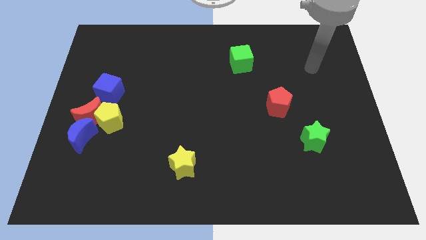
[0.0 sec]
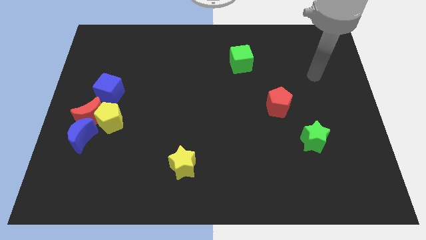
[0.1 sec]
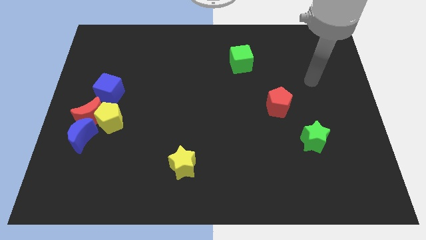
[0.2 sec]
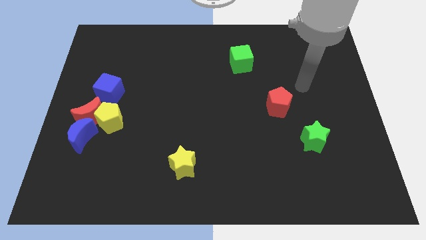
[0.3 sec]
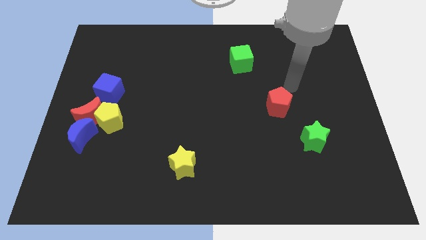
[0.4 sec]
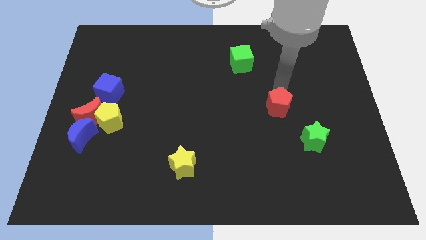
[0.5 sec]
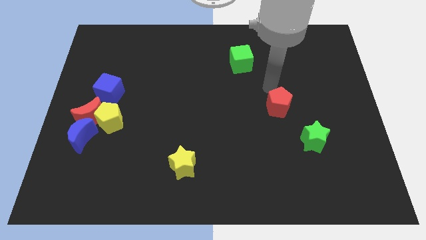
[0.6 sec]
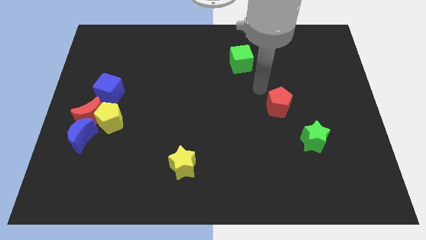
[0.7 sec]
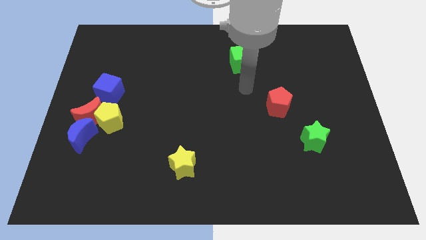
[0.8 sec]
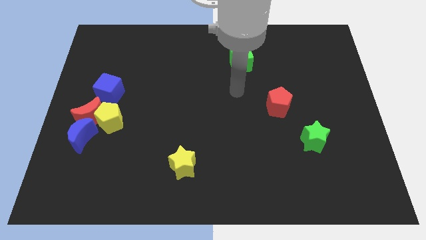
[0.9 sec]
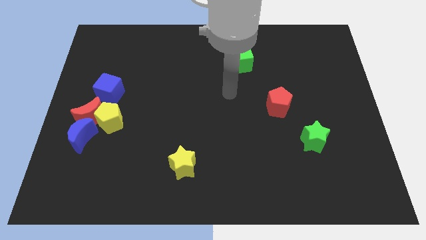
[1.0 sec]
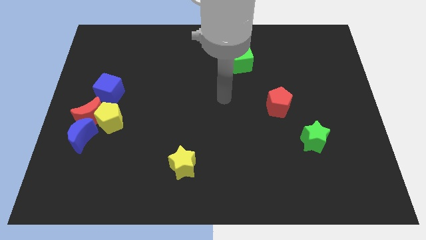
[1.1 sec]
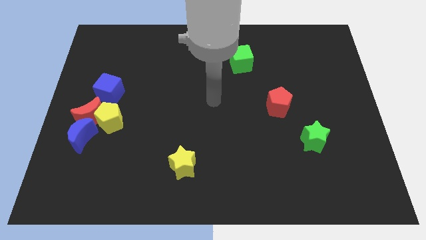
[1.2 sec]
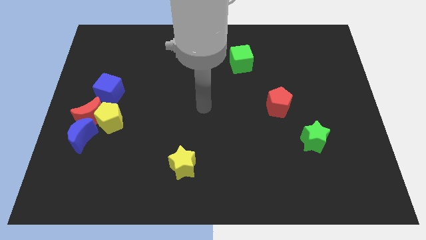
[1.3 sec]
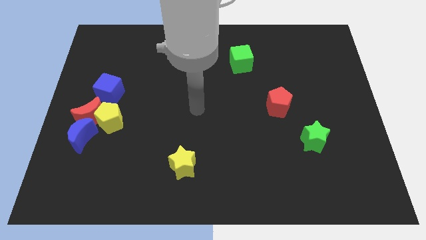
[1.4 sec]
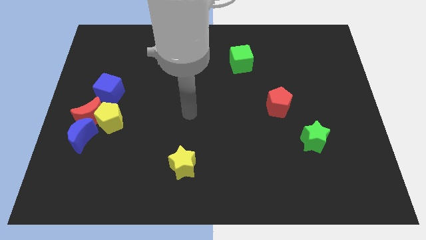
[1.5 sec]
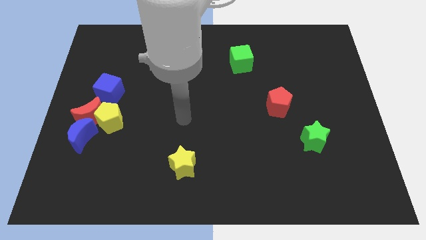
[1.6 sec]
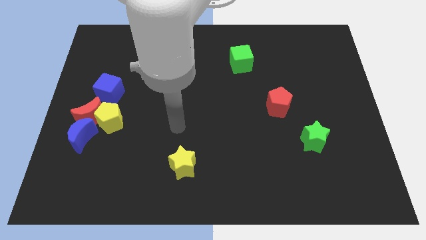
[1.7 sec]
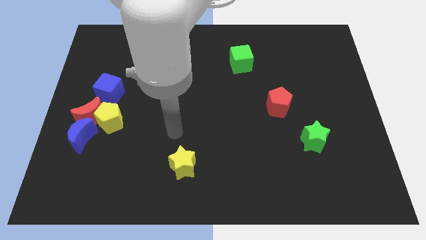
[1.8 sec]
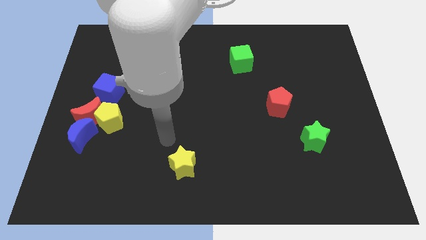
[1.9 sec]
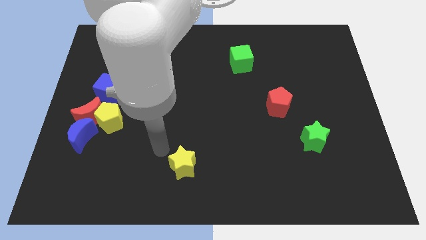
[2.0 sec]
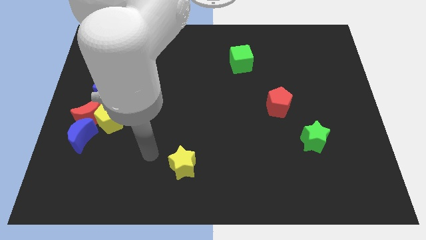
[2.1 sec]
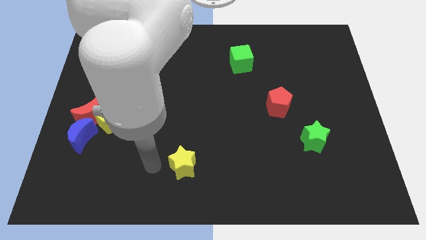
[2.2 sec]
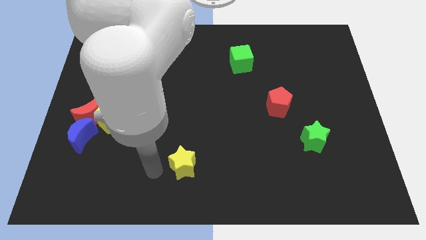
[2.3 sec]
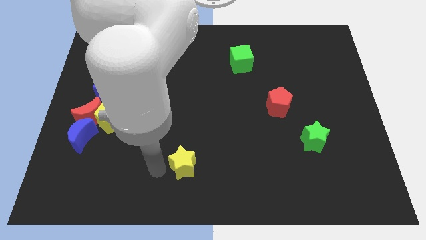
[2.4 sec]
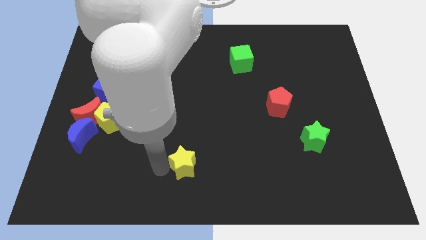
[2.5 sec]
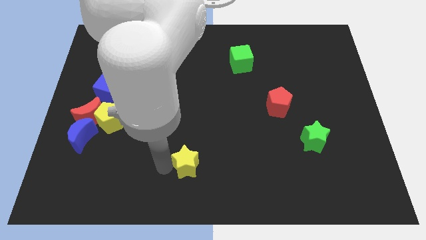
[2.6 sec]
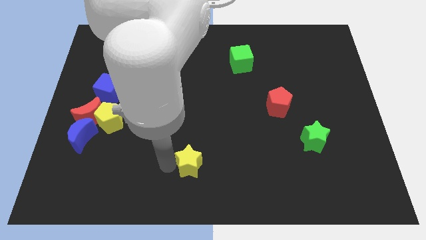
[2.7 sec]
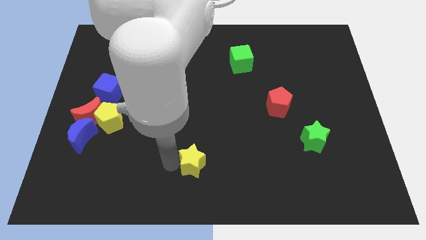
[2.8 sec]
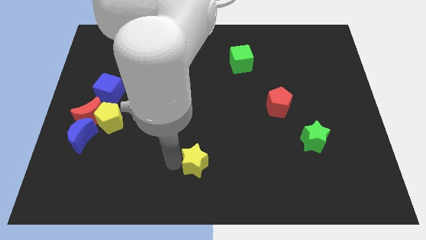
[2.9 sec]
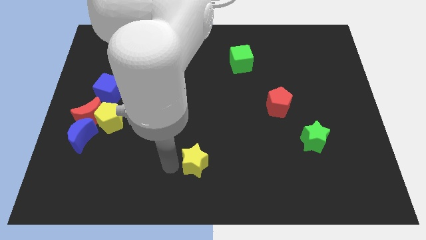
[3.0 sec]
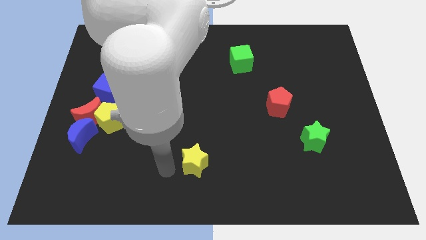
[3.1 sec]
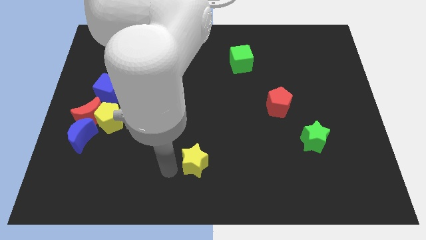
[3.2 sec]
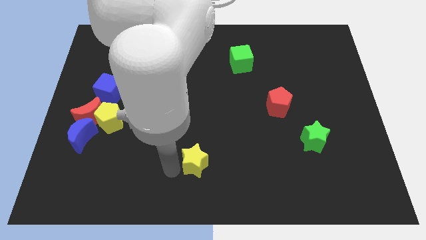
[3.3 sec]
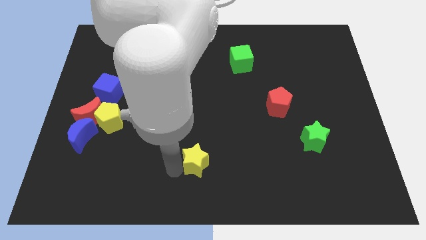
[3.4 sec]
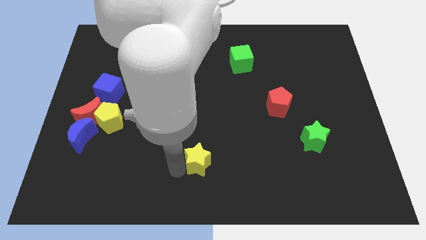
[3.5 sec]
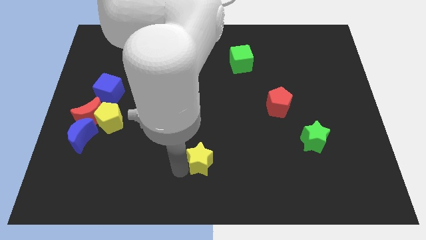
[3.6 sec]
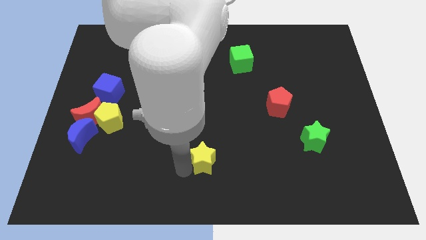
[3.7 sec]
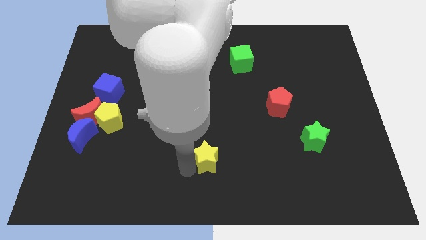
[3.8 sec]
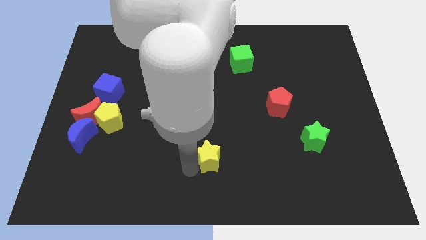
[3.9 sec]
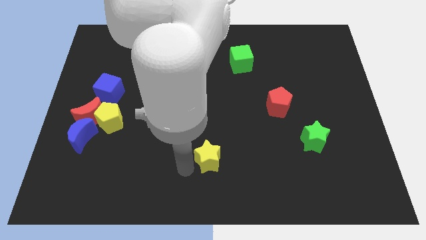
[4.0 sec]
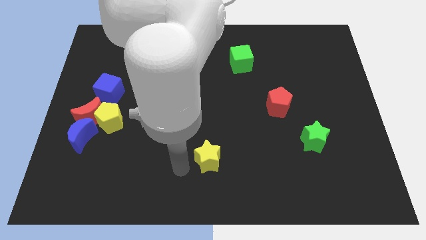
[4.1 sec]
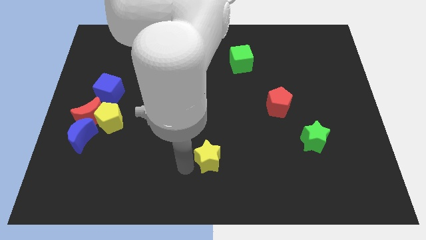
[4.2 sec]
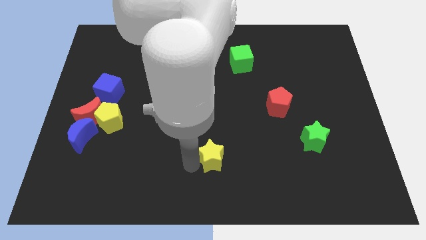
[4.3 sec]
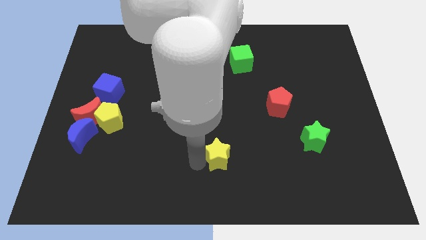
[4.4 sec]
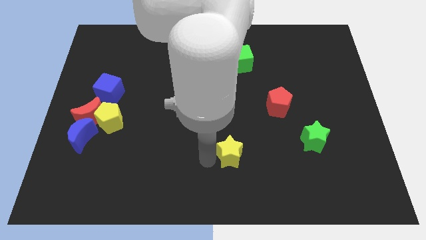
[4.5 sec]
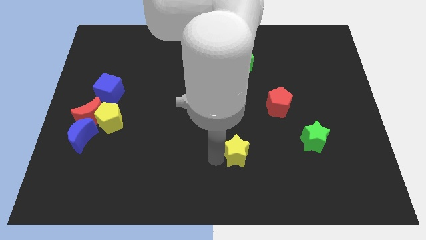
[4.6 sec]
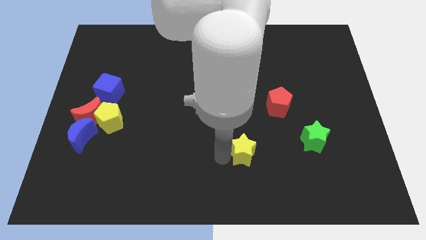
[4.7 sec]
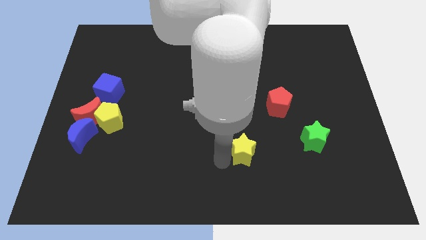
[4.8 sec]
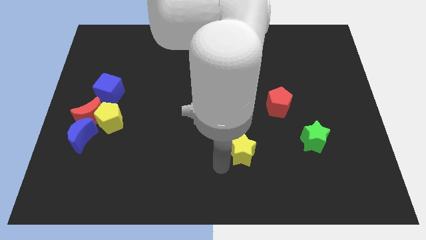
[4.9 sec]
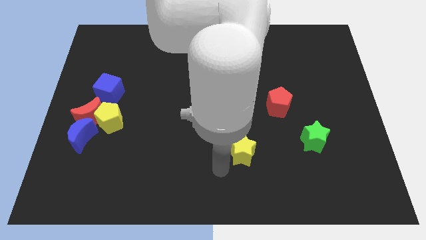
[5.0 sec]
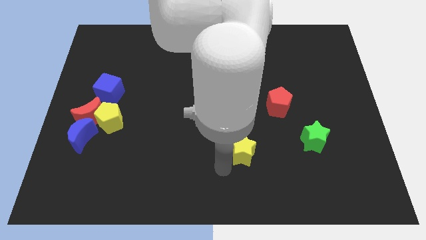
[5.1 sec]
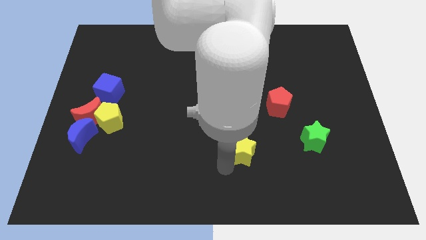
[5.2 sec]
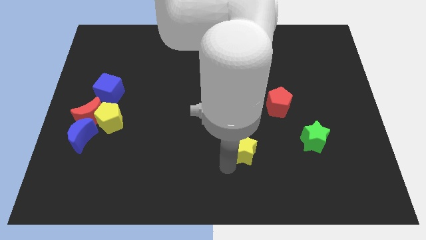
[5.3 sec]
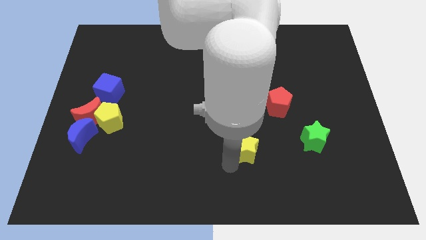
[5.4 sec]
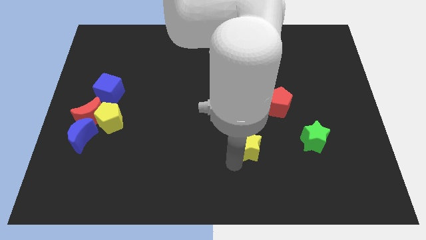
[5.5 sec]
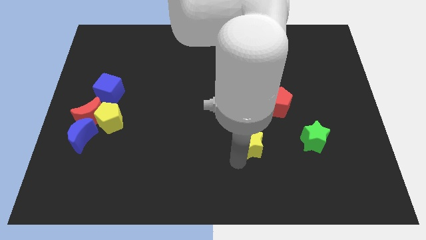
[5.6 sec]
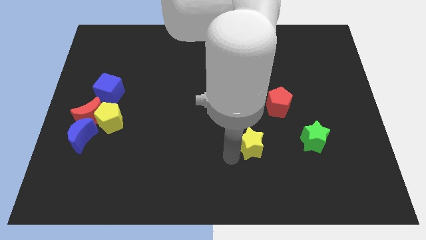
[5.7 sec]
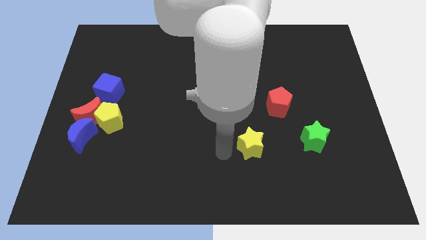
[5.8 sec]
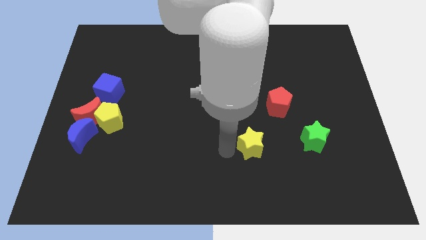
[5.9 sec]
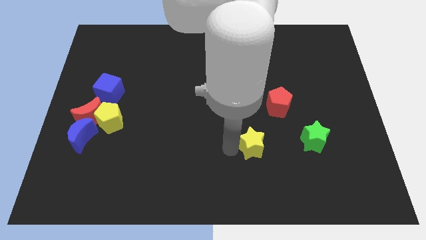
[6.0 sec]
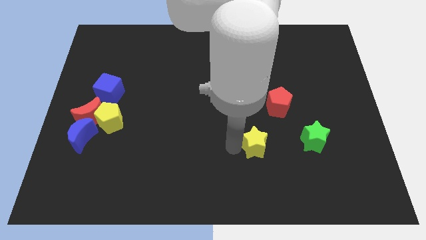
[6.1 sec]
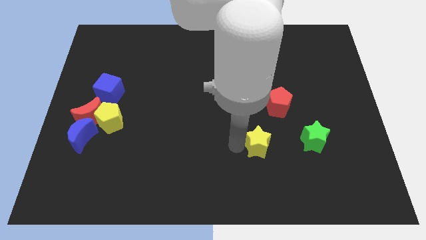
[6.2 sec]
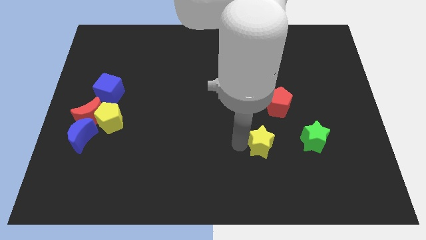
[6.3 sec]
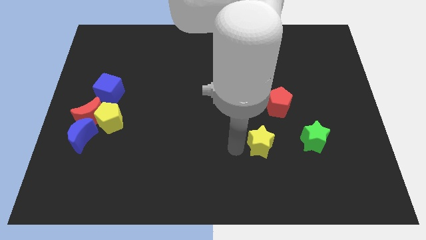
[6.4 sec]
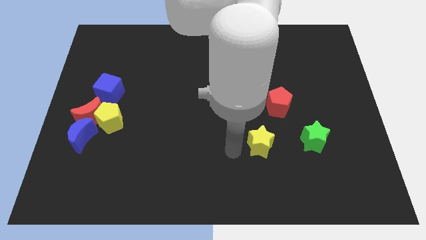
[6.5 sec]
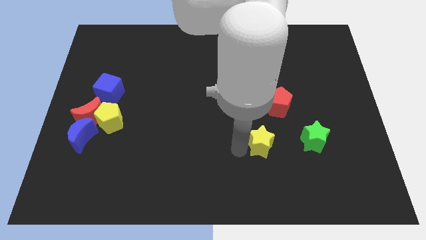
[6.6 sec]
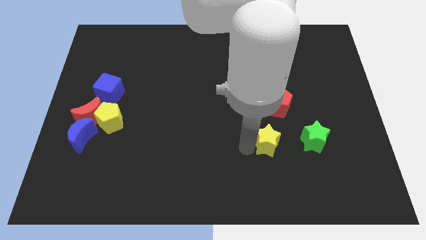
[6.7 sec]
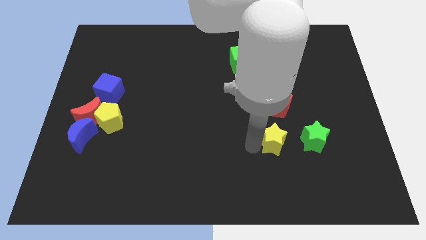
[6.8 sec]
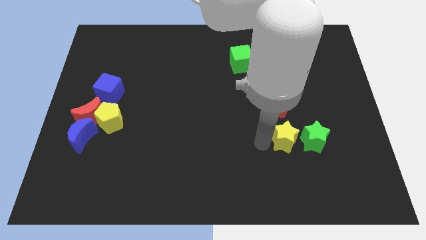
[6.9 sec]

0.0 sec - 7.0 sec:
push the yellow star towards the green star

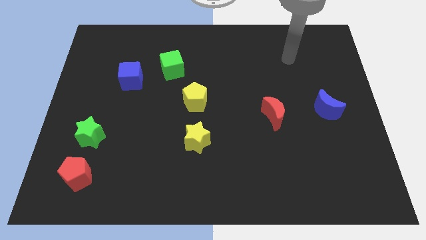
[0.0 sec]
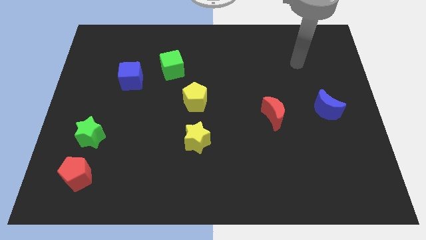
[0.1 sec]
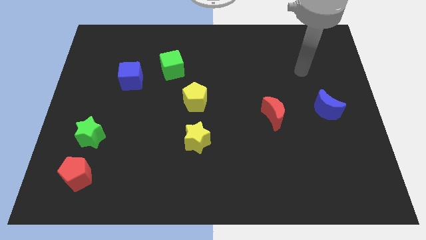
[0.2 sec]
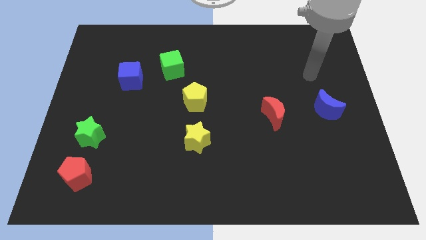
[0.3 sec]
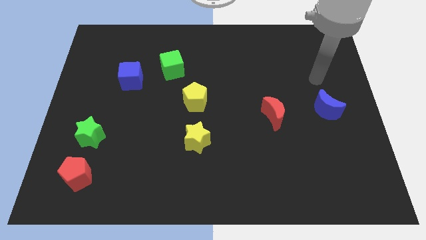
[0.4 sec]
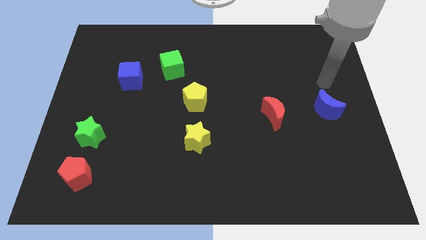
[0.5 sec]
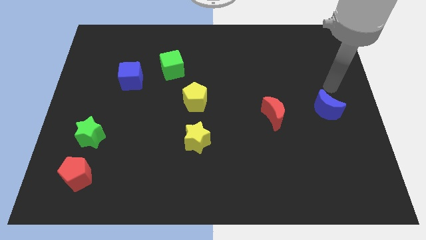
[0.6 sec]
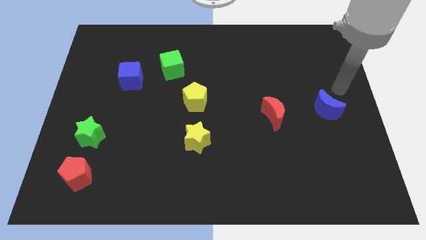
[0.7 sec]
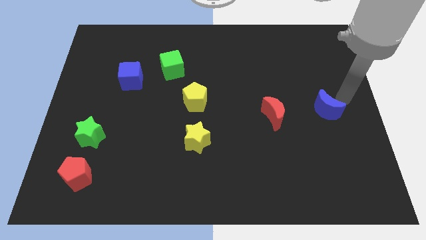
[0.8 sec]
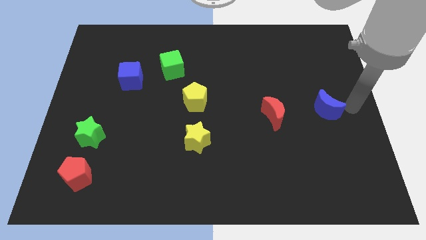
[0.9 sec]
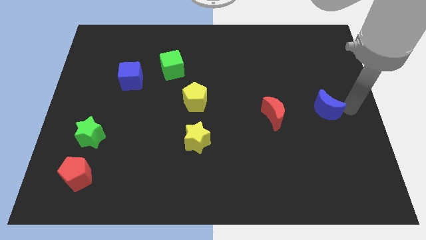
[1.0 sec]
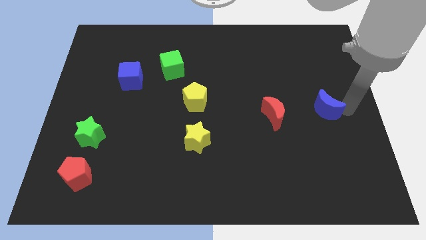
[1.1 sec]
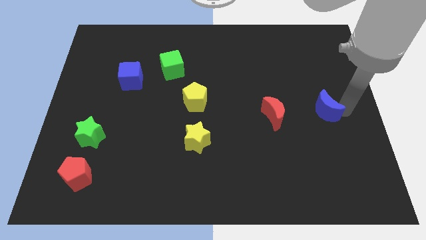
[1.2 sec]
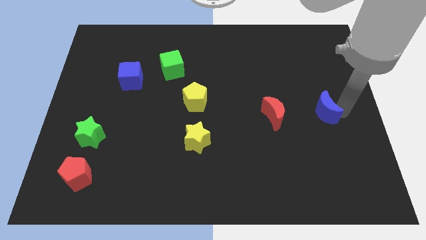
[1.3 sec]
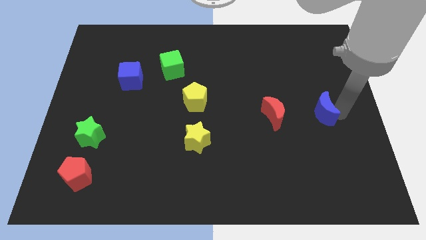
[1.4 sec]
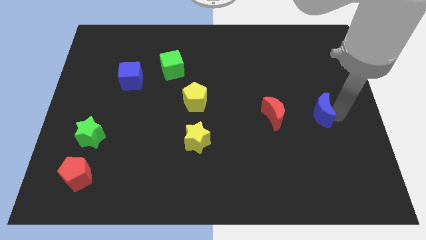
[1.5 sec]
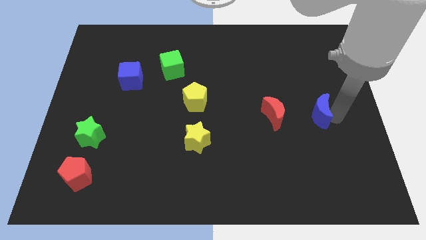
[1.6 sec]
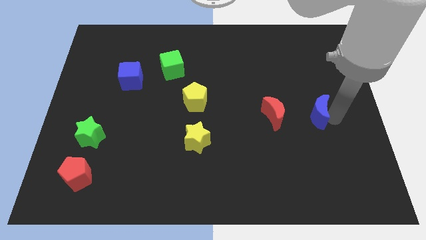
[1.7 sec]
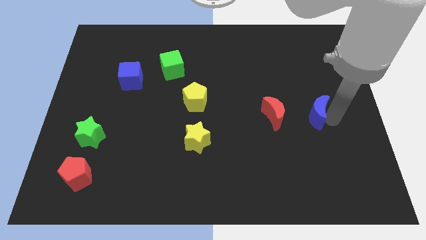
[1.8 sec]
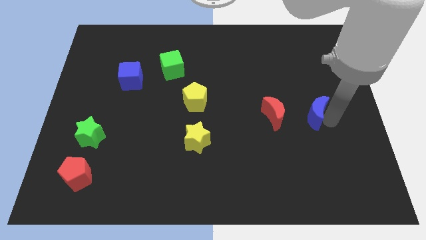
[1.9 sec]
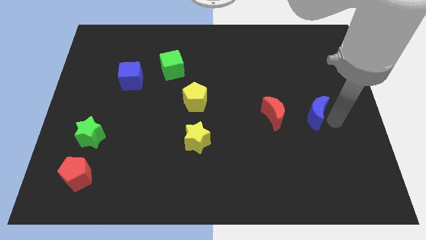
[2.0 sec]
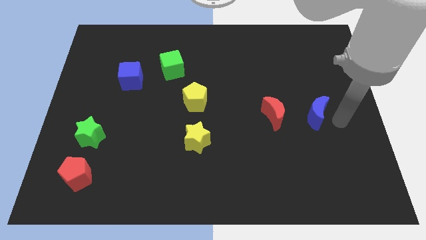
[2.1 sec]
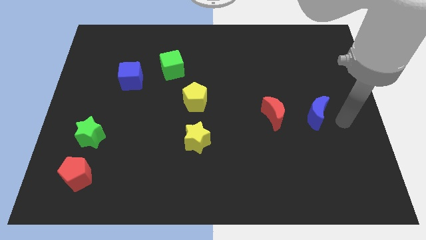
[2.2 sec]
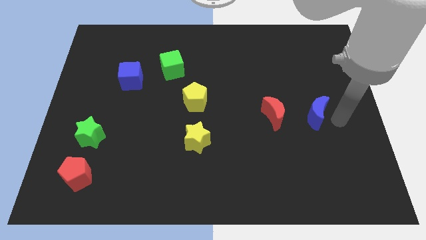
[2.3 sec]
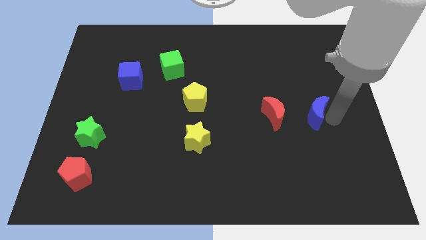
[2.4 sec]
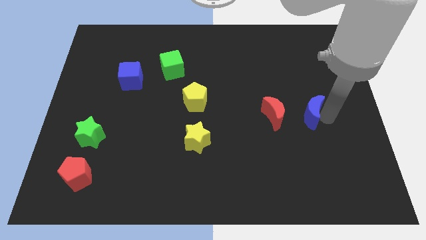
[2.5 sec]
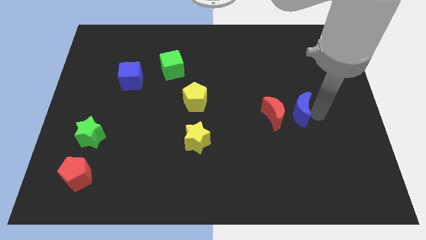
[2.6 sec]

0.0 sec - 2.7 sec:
put the blue moon next to the red moon
